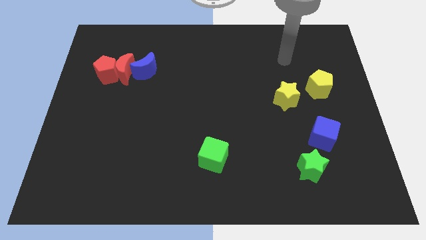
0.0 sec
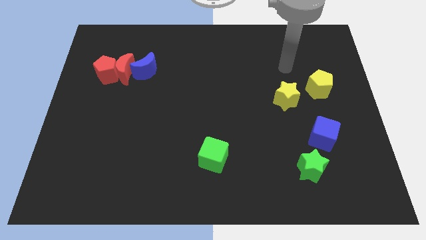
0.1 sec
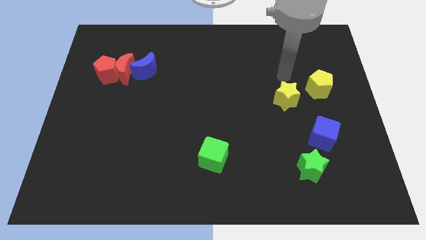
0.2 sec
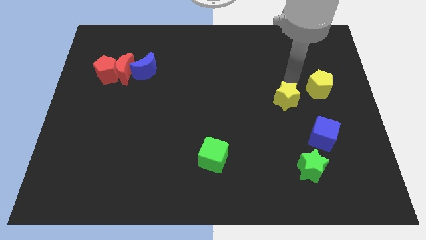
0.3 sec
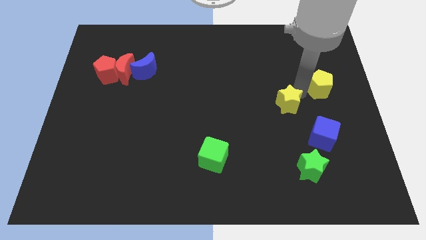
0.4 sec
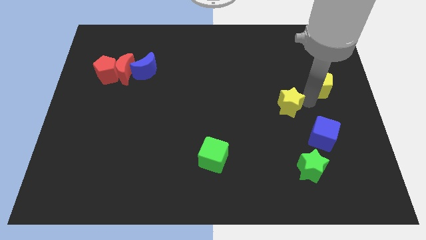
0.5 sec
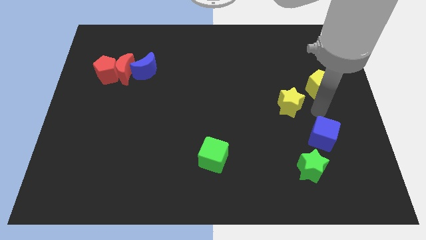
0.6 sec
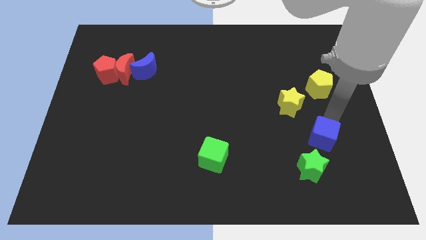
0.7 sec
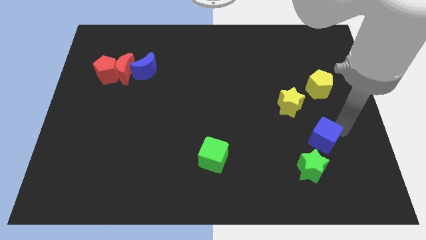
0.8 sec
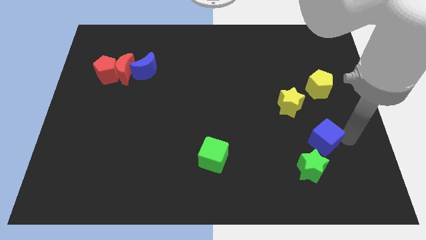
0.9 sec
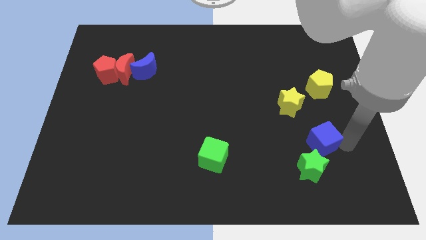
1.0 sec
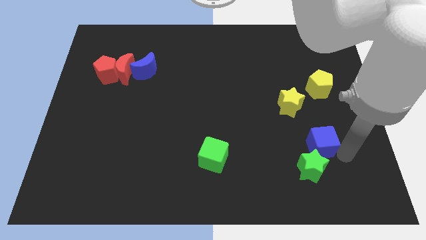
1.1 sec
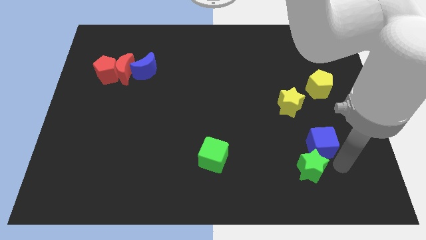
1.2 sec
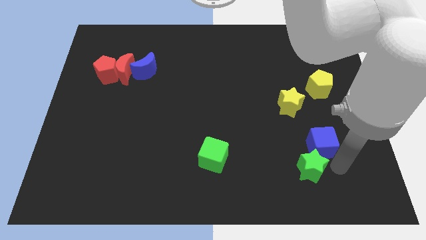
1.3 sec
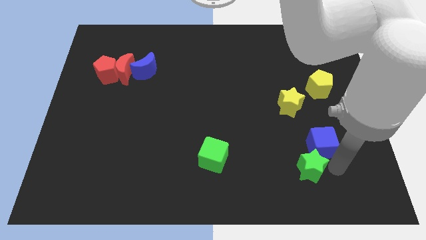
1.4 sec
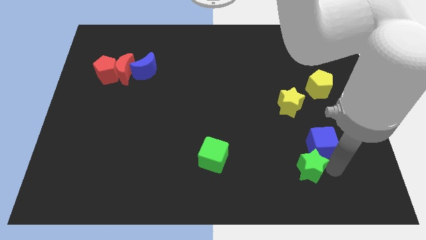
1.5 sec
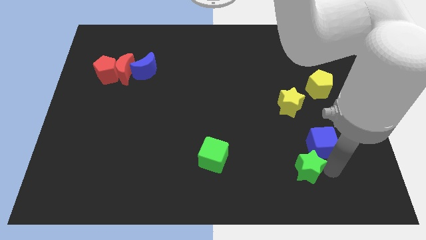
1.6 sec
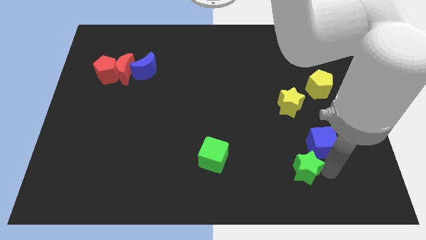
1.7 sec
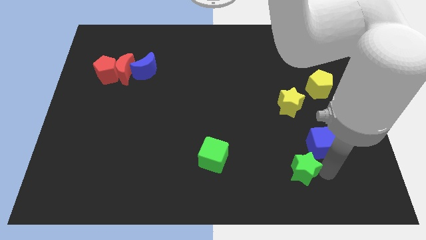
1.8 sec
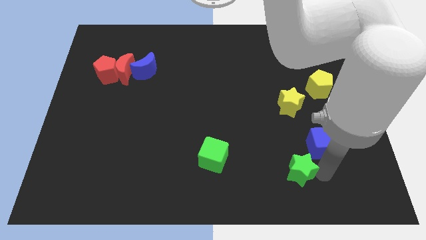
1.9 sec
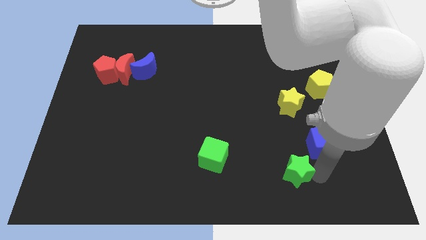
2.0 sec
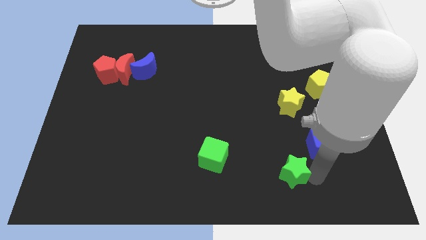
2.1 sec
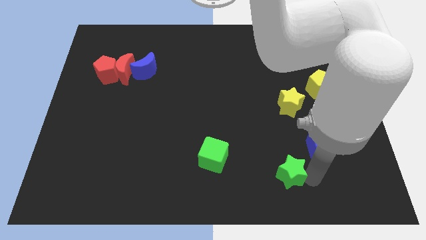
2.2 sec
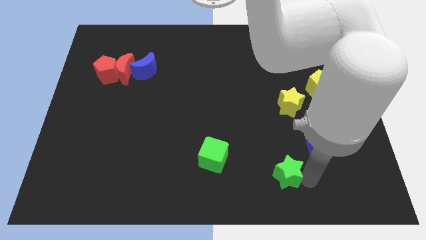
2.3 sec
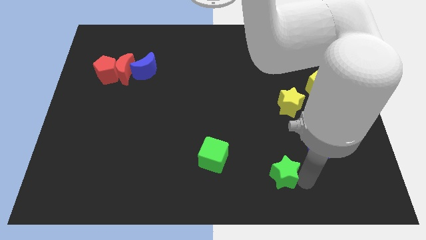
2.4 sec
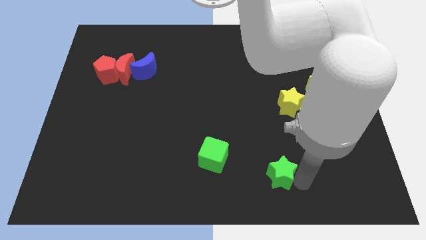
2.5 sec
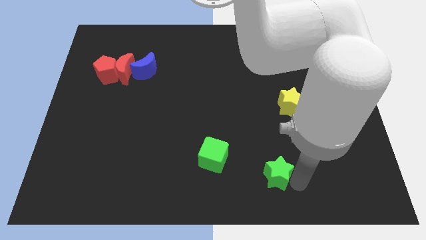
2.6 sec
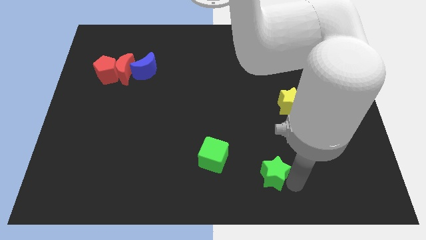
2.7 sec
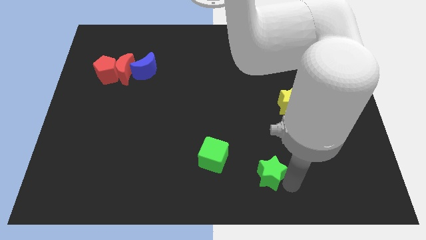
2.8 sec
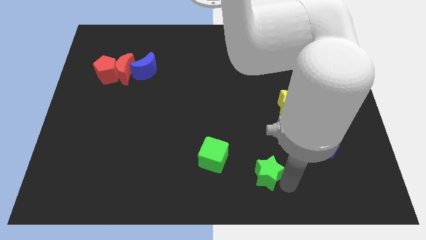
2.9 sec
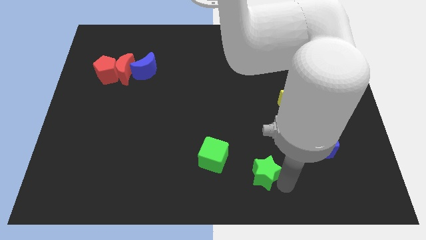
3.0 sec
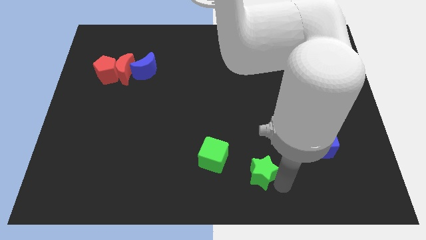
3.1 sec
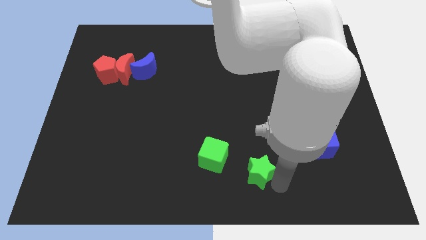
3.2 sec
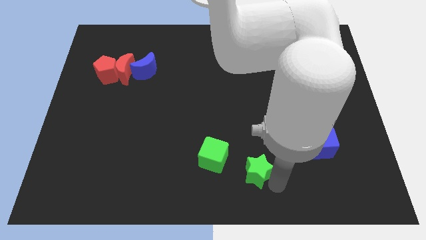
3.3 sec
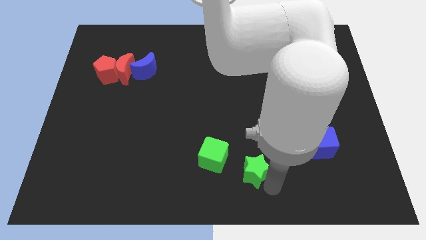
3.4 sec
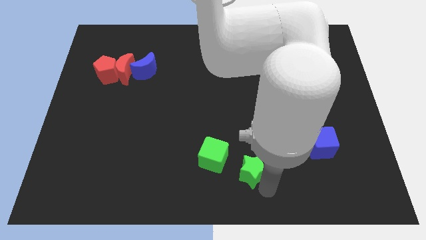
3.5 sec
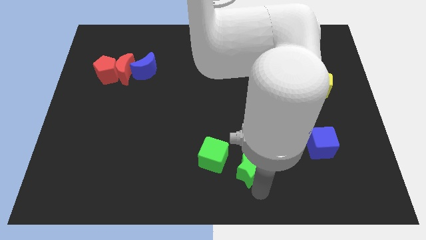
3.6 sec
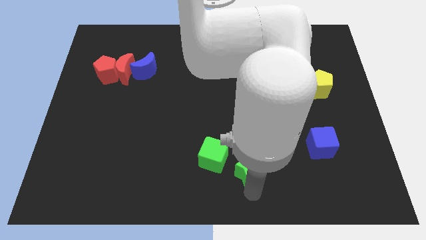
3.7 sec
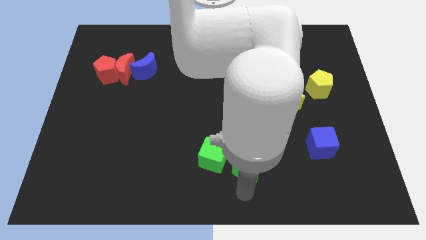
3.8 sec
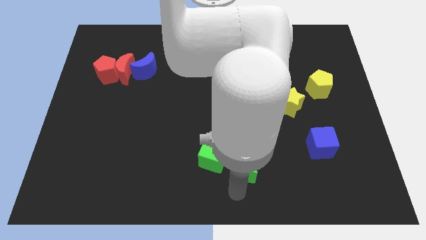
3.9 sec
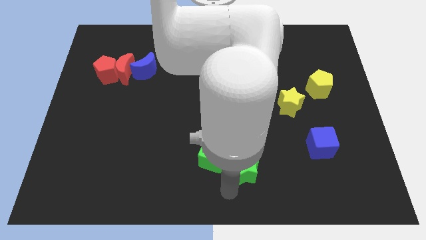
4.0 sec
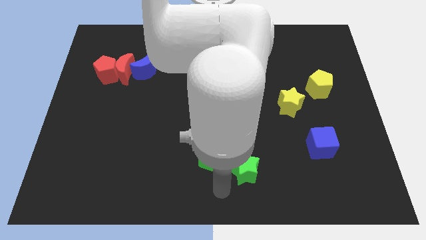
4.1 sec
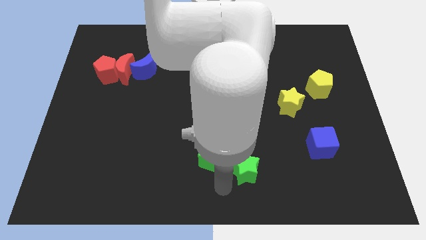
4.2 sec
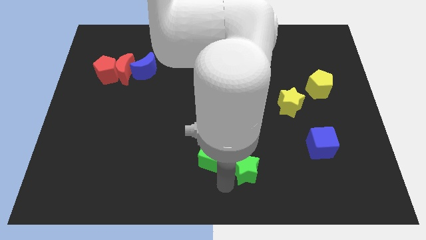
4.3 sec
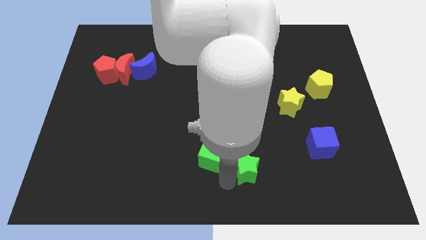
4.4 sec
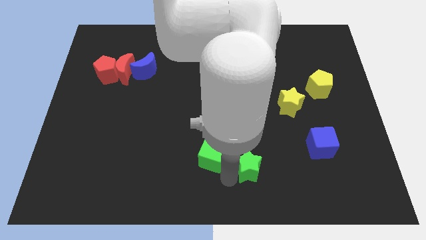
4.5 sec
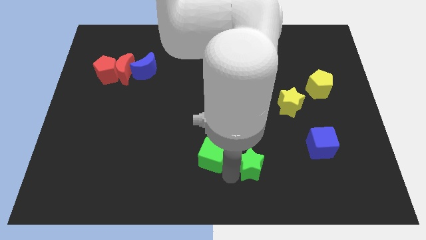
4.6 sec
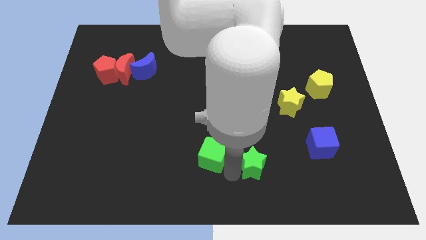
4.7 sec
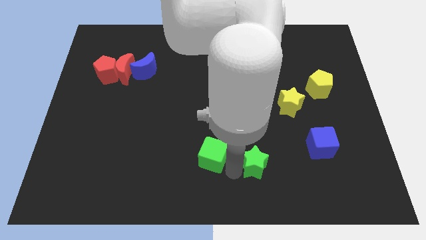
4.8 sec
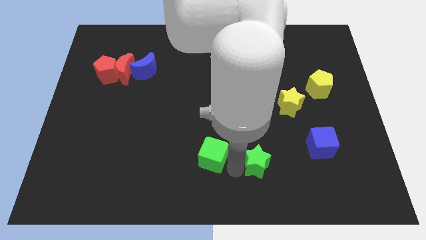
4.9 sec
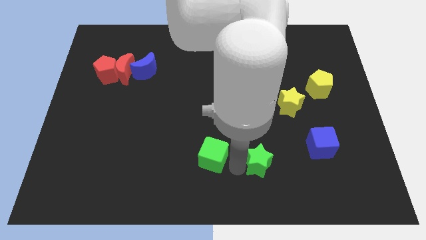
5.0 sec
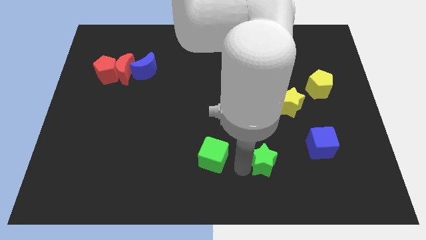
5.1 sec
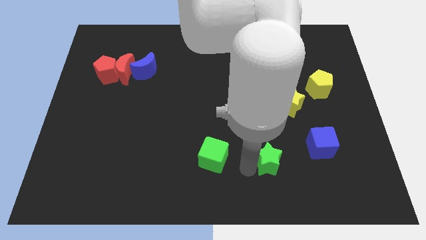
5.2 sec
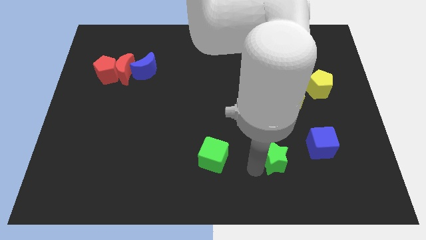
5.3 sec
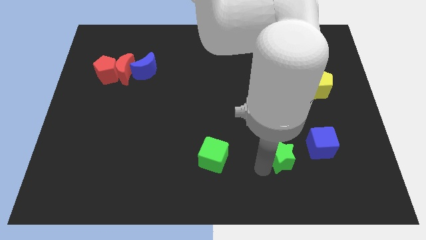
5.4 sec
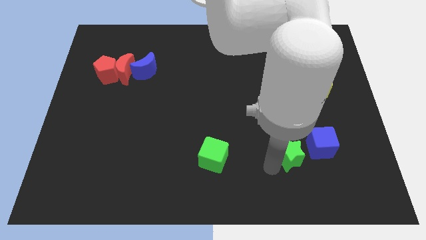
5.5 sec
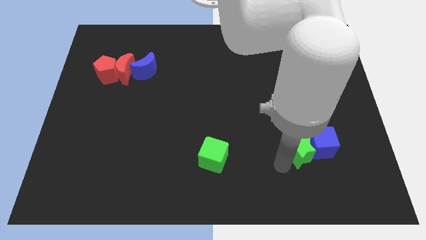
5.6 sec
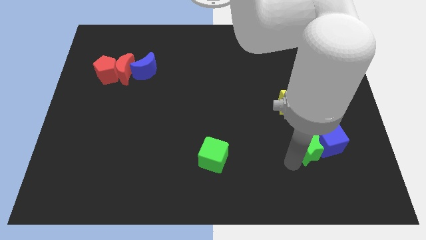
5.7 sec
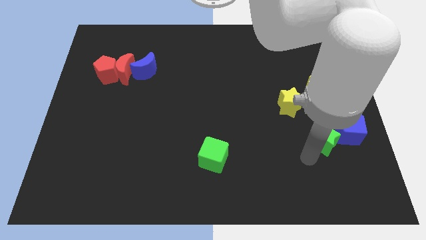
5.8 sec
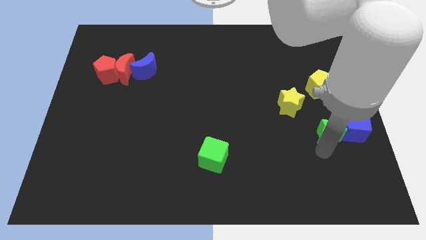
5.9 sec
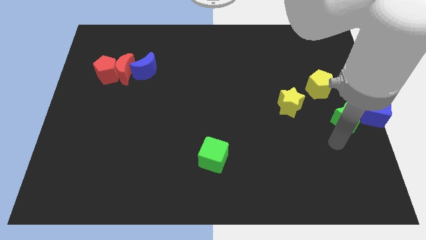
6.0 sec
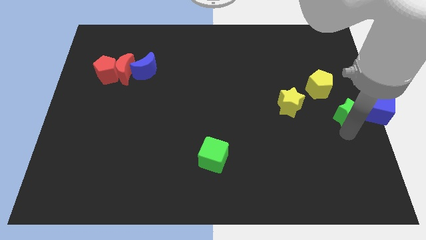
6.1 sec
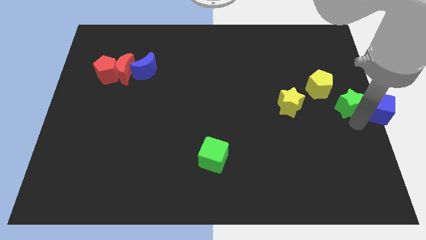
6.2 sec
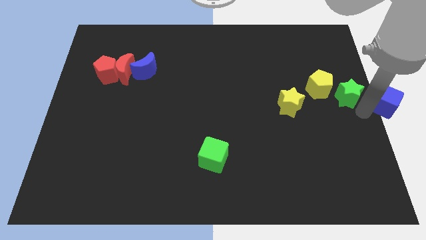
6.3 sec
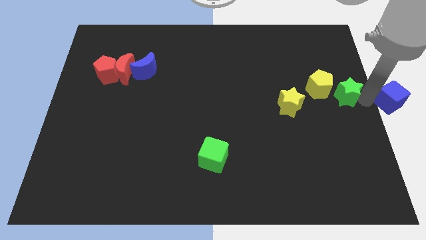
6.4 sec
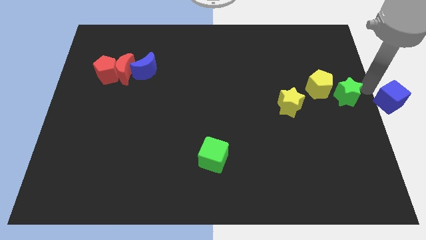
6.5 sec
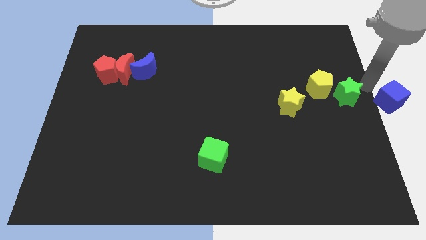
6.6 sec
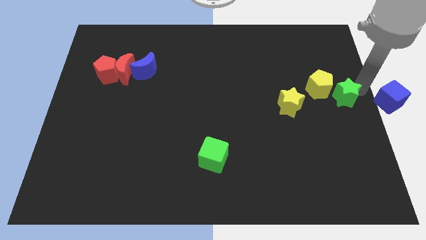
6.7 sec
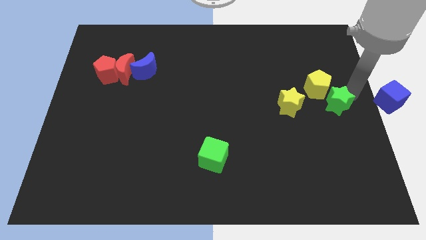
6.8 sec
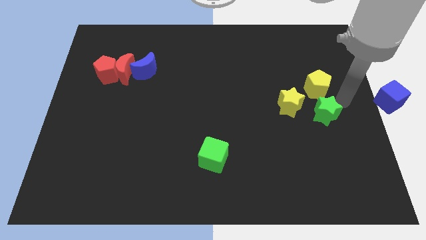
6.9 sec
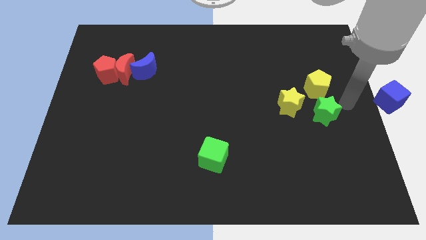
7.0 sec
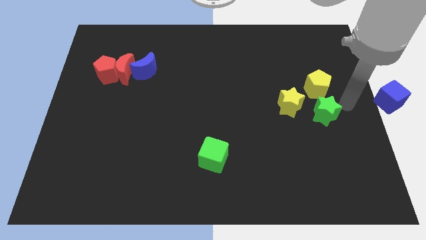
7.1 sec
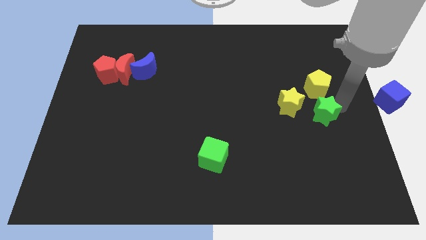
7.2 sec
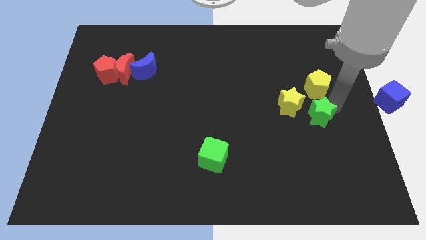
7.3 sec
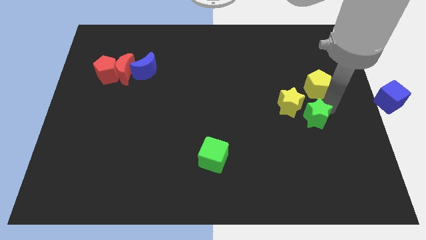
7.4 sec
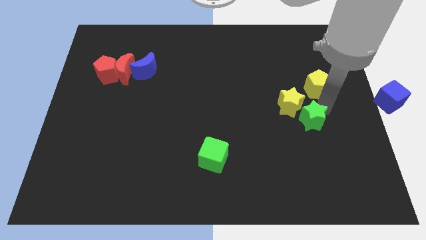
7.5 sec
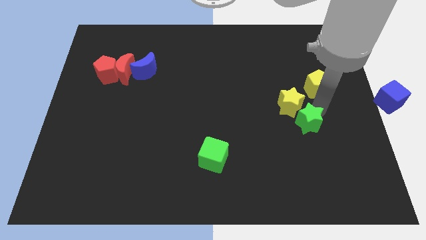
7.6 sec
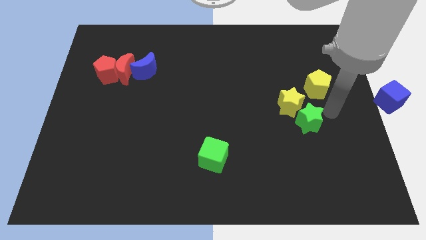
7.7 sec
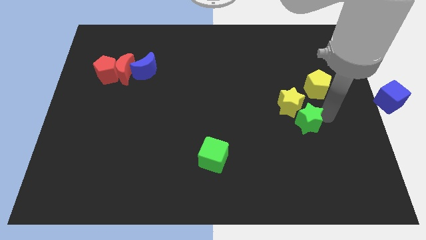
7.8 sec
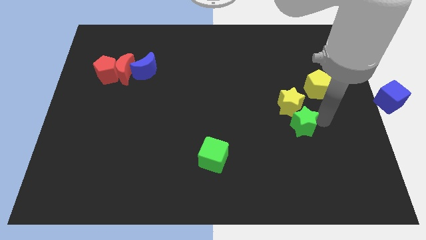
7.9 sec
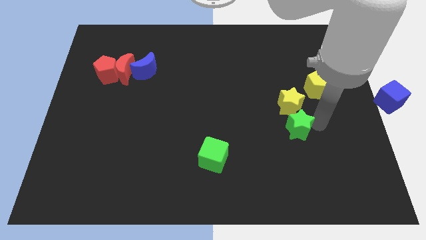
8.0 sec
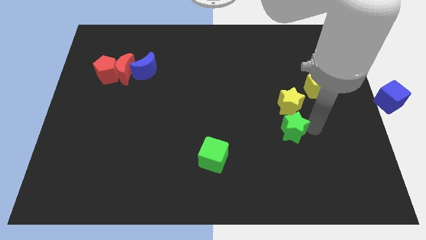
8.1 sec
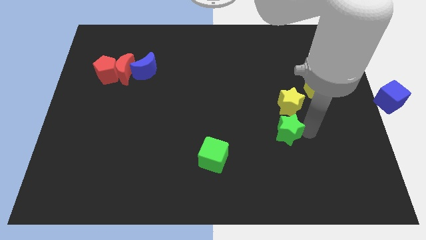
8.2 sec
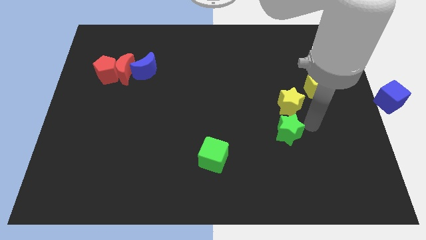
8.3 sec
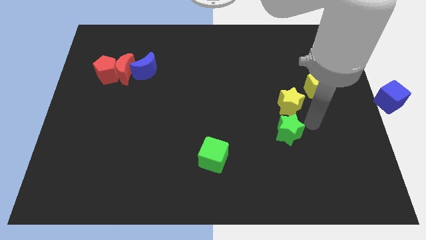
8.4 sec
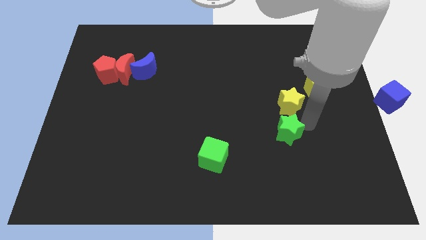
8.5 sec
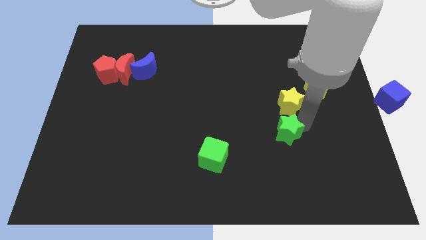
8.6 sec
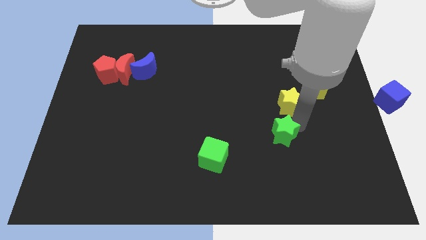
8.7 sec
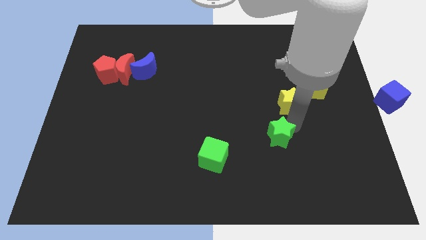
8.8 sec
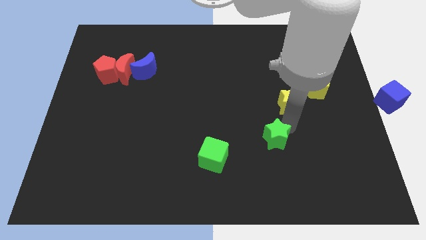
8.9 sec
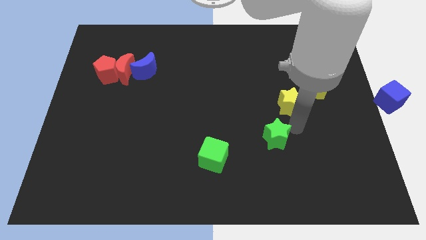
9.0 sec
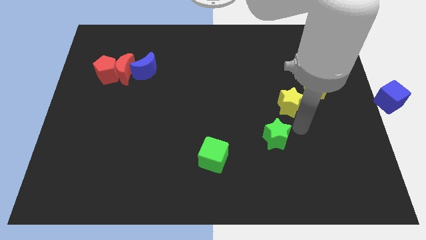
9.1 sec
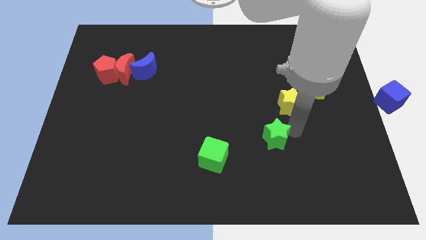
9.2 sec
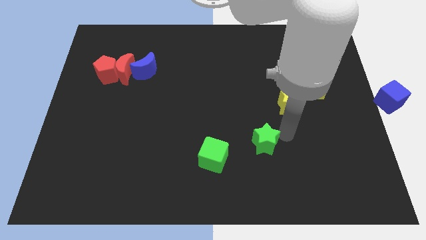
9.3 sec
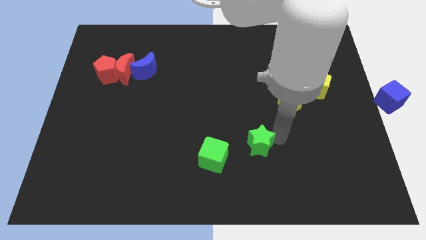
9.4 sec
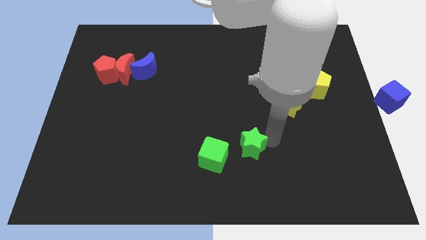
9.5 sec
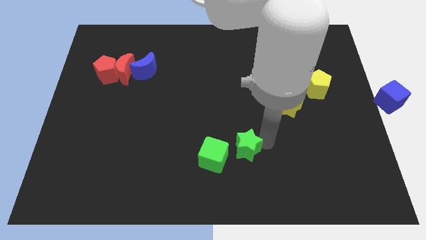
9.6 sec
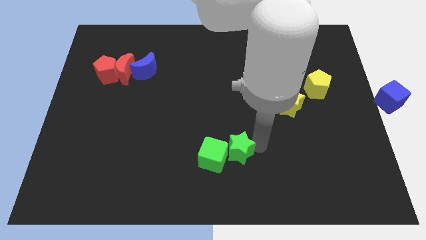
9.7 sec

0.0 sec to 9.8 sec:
move the green star close to the green cube
